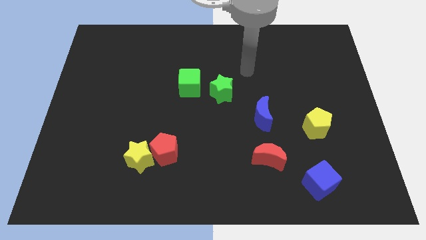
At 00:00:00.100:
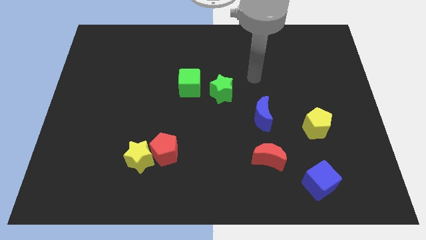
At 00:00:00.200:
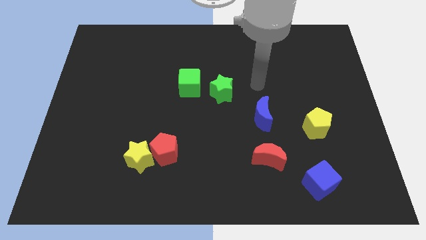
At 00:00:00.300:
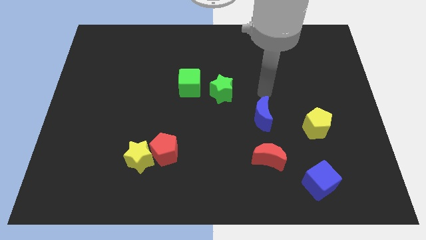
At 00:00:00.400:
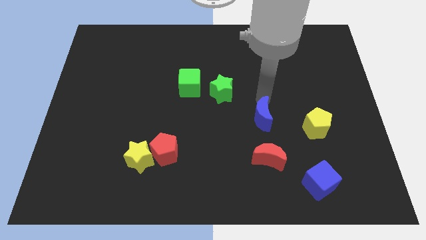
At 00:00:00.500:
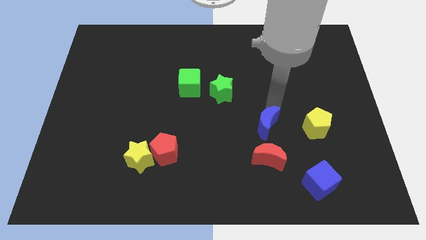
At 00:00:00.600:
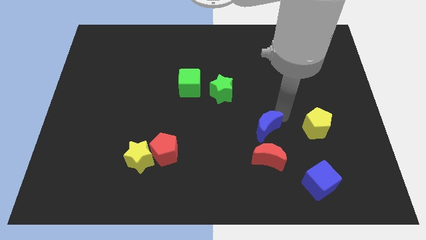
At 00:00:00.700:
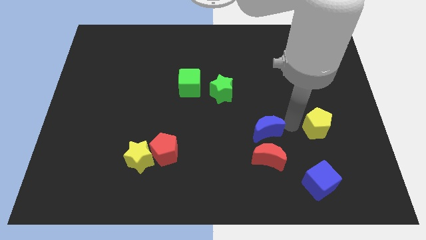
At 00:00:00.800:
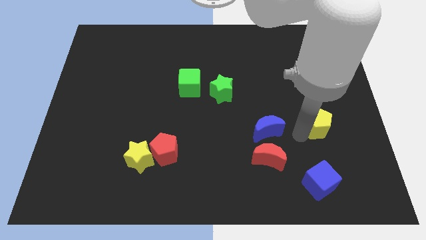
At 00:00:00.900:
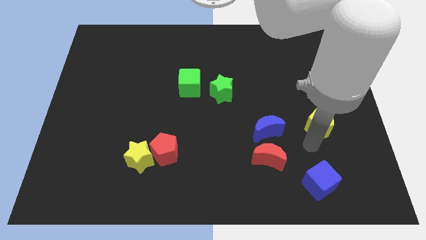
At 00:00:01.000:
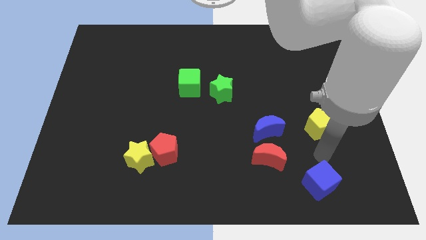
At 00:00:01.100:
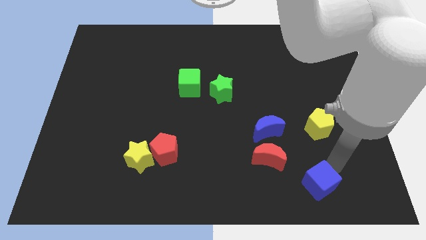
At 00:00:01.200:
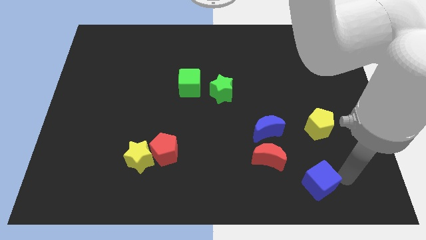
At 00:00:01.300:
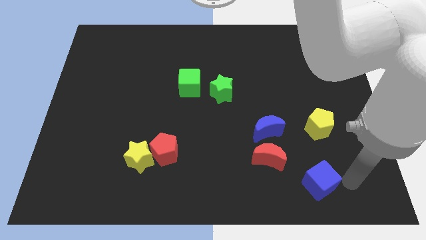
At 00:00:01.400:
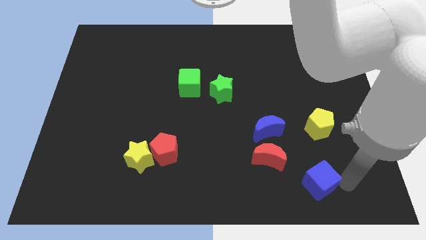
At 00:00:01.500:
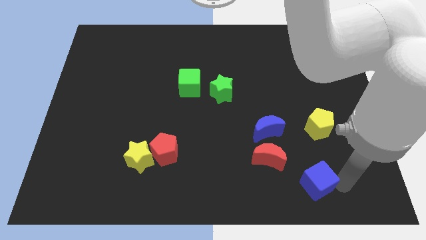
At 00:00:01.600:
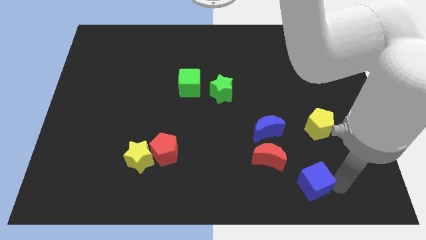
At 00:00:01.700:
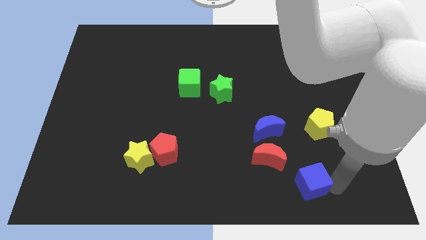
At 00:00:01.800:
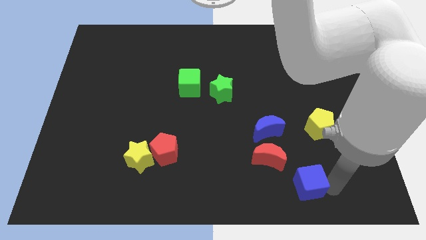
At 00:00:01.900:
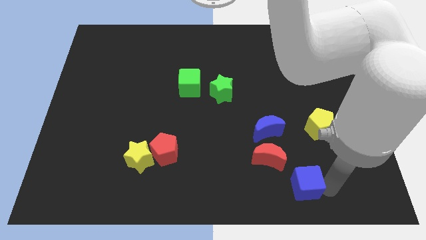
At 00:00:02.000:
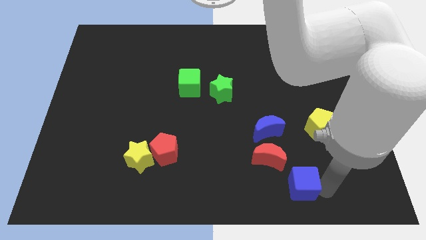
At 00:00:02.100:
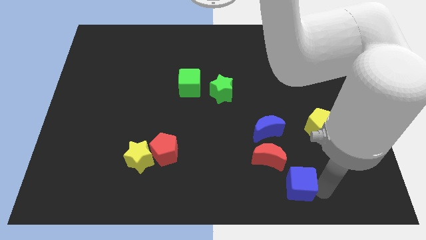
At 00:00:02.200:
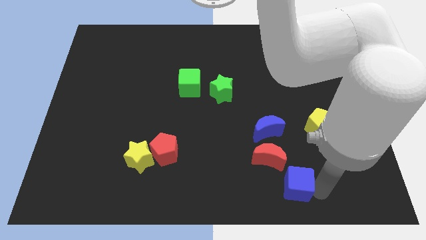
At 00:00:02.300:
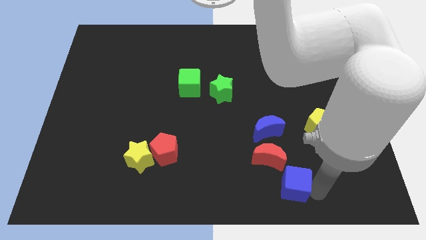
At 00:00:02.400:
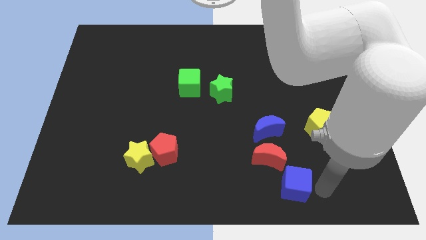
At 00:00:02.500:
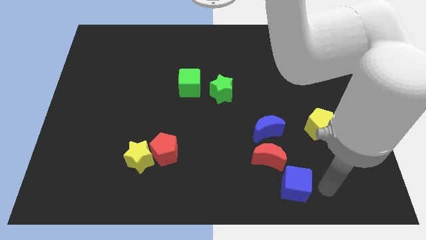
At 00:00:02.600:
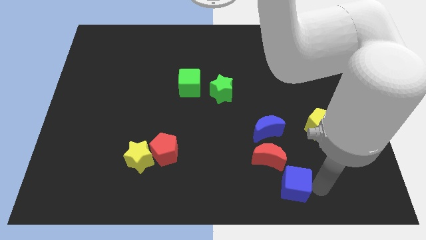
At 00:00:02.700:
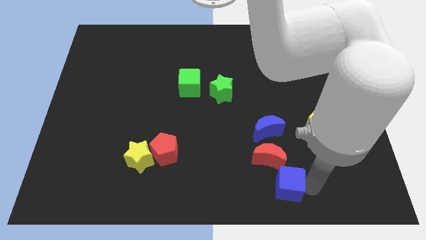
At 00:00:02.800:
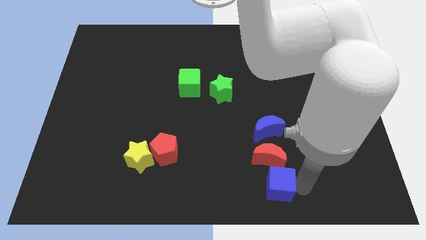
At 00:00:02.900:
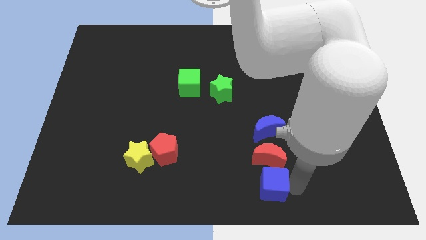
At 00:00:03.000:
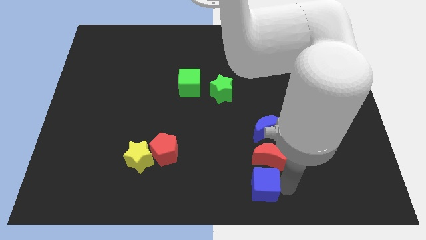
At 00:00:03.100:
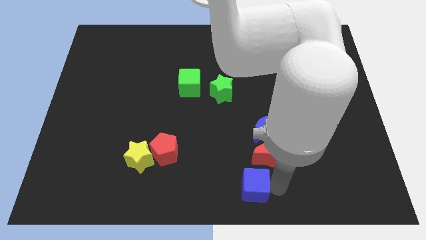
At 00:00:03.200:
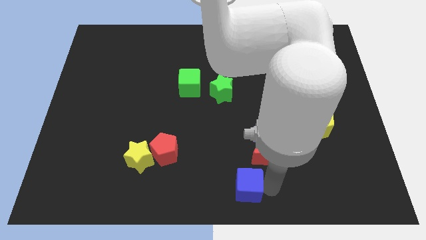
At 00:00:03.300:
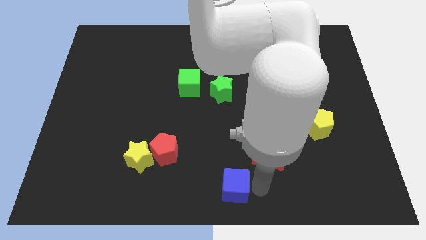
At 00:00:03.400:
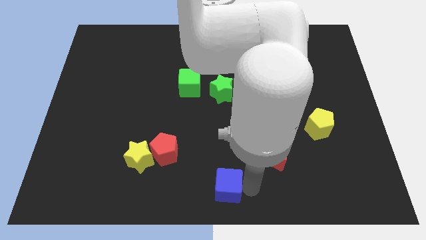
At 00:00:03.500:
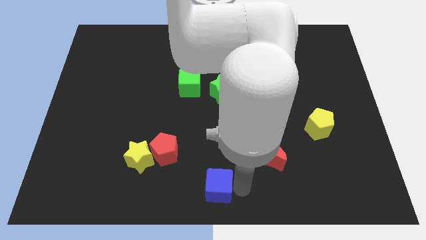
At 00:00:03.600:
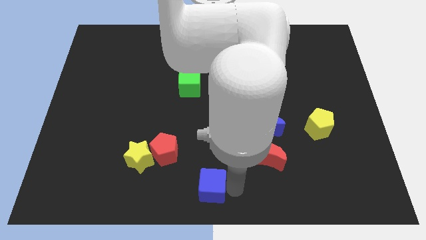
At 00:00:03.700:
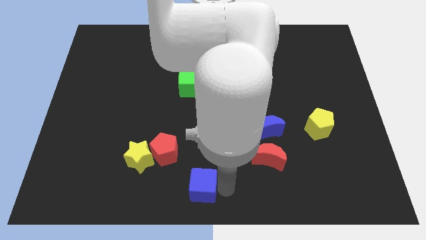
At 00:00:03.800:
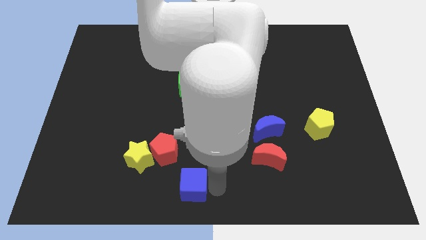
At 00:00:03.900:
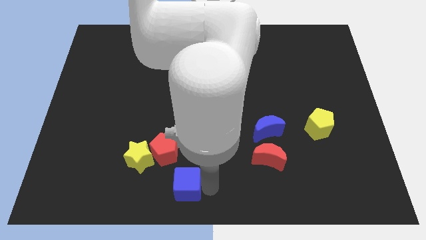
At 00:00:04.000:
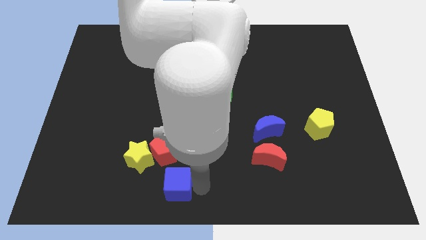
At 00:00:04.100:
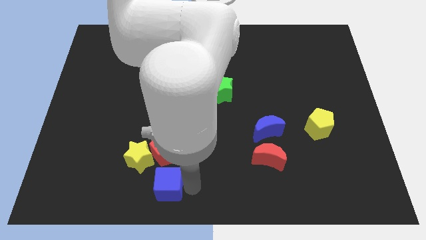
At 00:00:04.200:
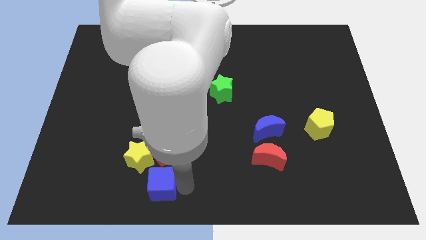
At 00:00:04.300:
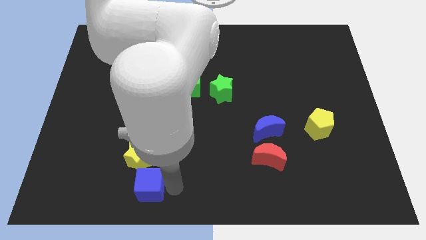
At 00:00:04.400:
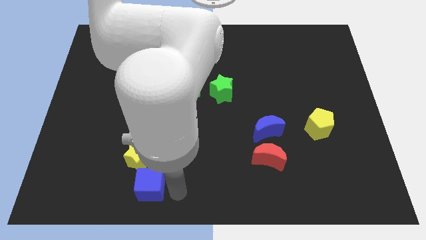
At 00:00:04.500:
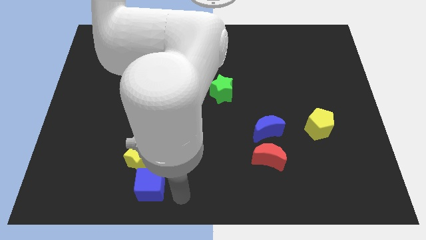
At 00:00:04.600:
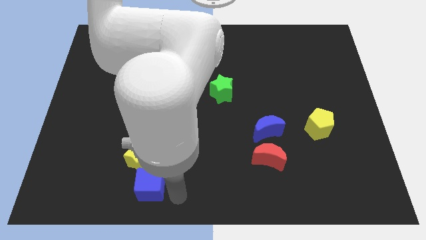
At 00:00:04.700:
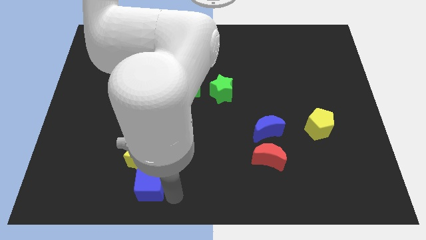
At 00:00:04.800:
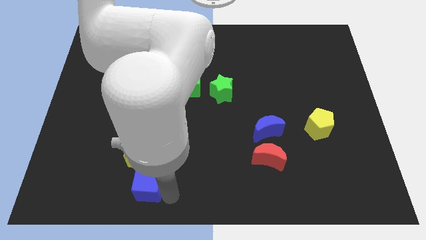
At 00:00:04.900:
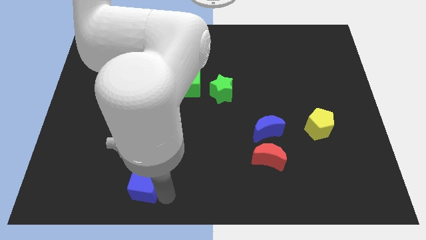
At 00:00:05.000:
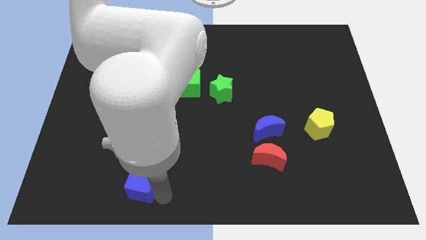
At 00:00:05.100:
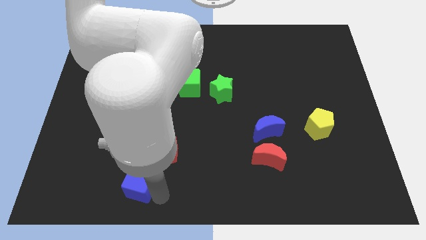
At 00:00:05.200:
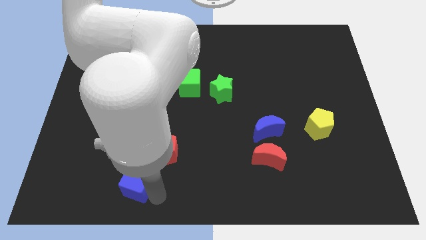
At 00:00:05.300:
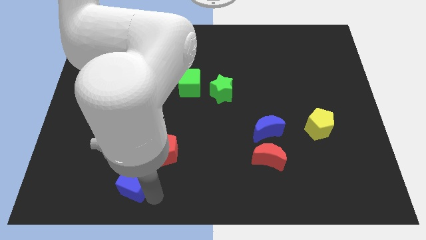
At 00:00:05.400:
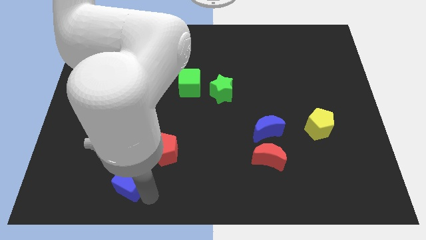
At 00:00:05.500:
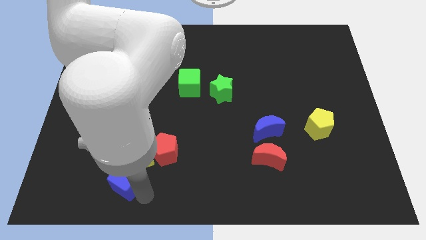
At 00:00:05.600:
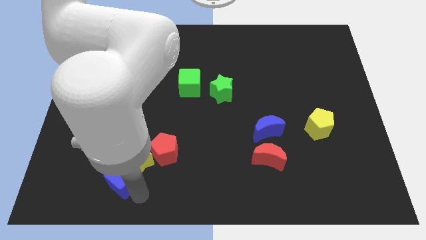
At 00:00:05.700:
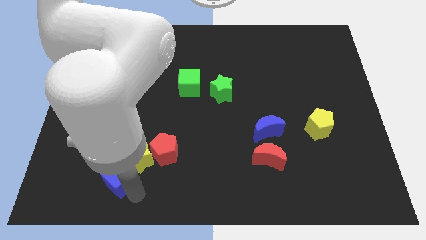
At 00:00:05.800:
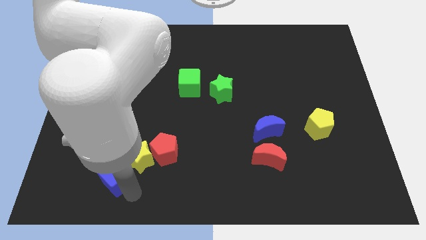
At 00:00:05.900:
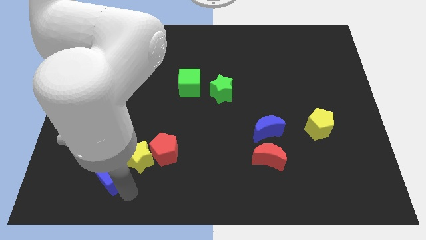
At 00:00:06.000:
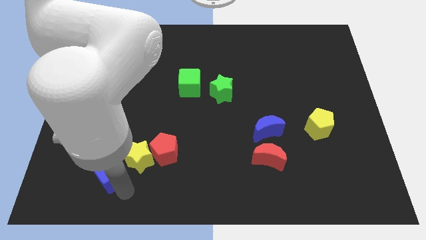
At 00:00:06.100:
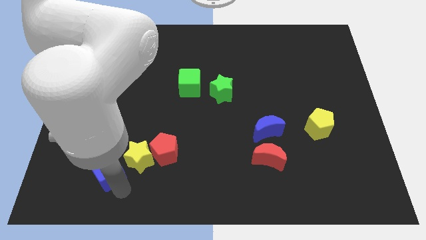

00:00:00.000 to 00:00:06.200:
move the blue cube just left of the red pentagon

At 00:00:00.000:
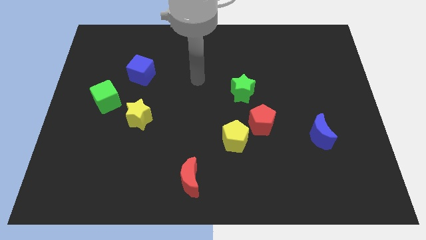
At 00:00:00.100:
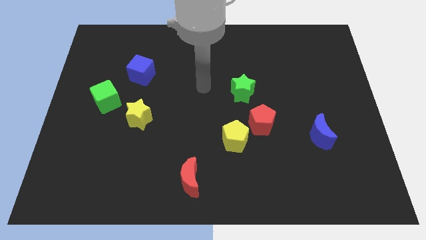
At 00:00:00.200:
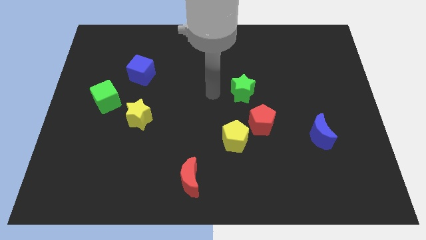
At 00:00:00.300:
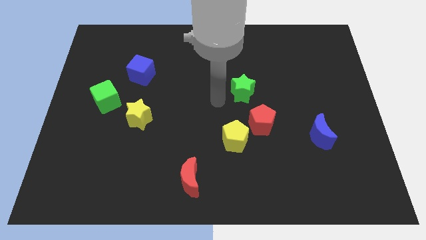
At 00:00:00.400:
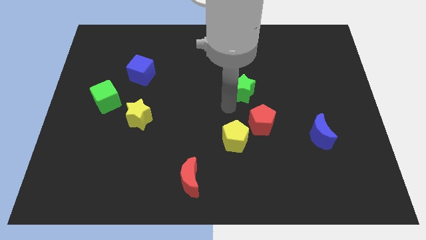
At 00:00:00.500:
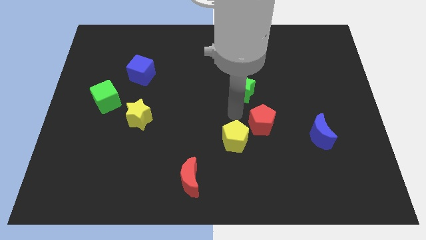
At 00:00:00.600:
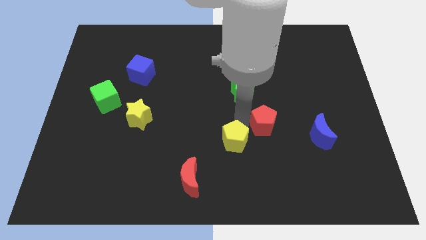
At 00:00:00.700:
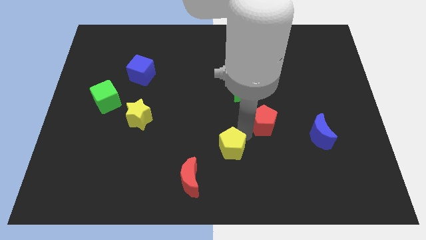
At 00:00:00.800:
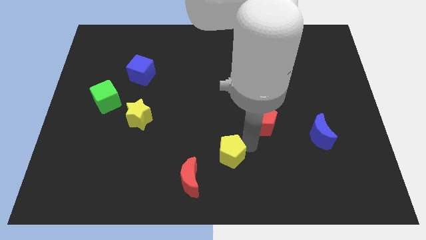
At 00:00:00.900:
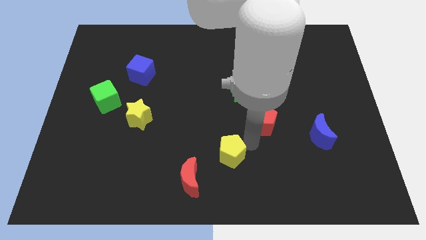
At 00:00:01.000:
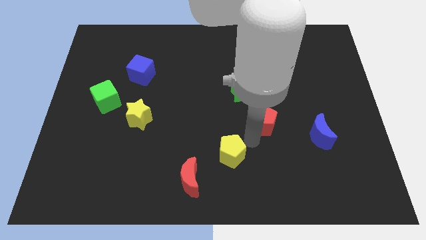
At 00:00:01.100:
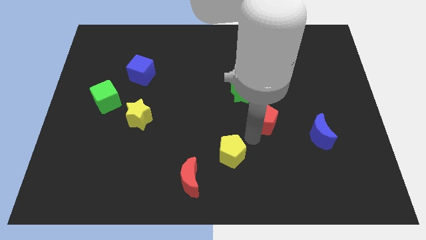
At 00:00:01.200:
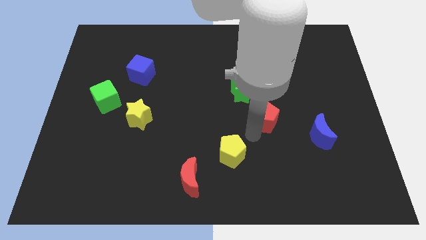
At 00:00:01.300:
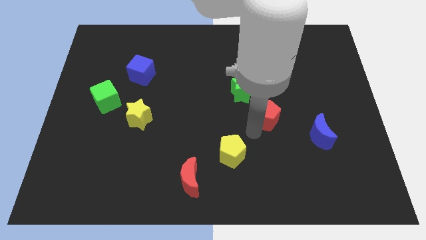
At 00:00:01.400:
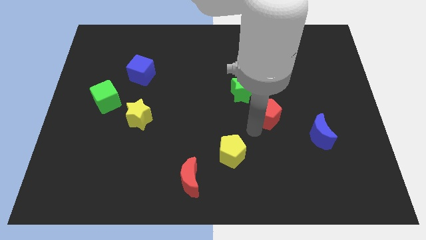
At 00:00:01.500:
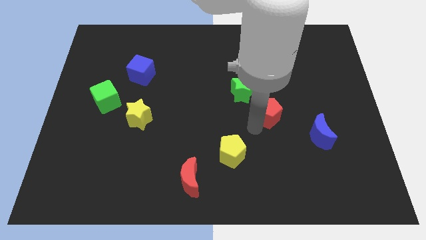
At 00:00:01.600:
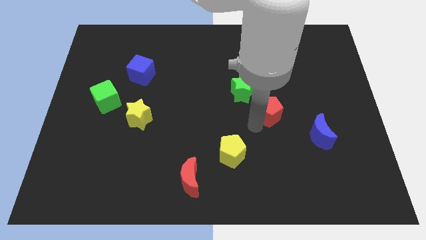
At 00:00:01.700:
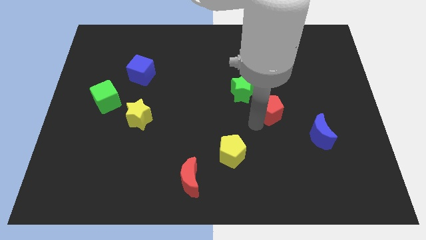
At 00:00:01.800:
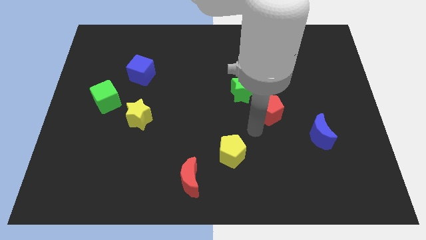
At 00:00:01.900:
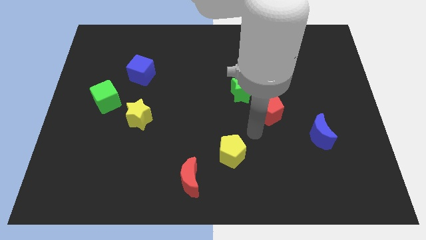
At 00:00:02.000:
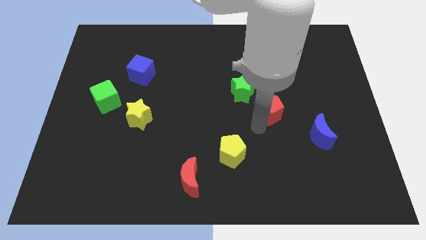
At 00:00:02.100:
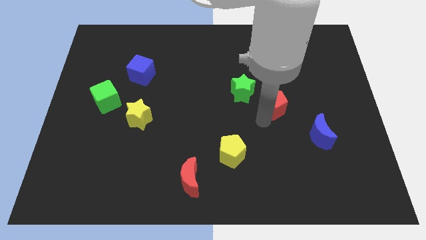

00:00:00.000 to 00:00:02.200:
put the red pentagon to the right of the green star
